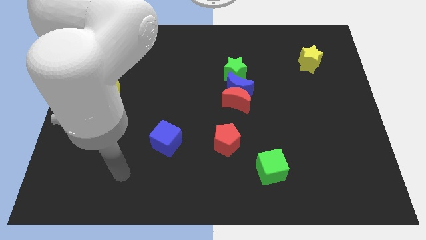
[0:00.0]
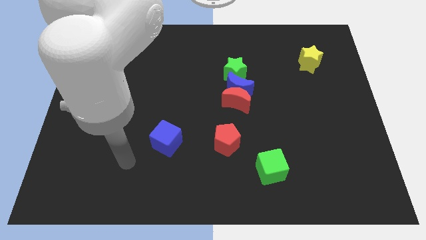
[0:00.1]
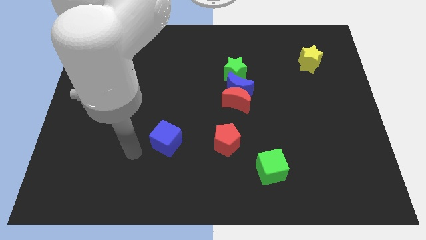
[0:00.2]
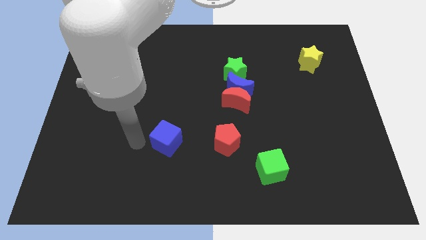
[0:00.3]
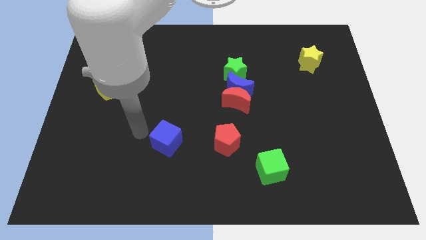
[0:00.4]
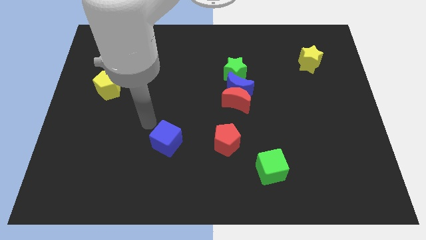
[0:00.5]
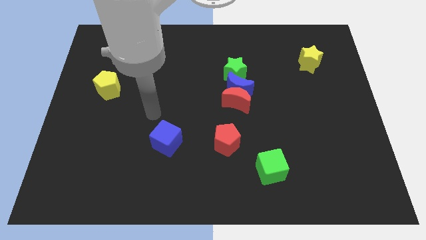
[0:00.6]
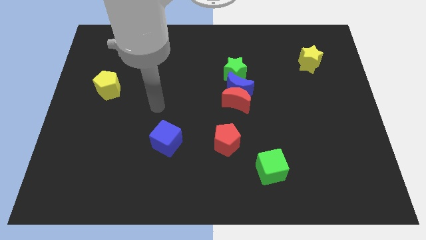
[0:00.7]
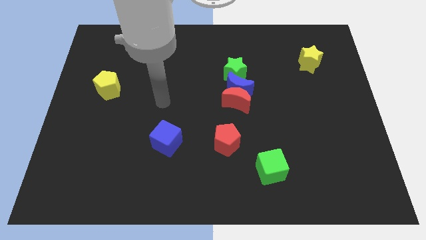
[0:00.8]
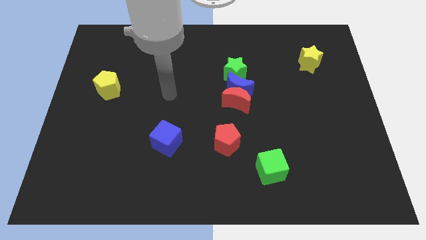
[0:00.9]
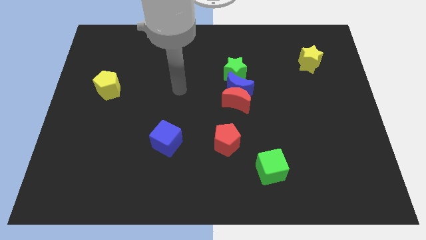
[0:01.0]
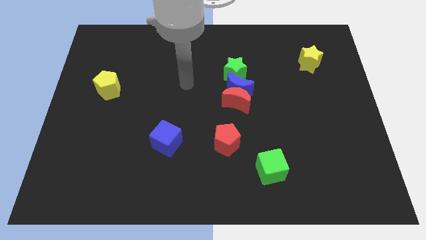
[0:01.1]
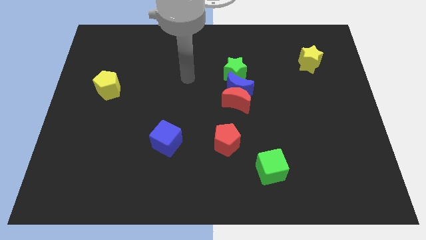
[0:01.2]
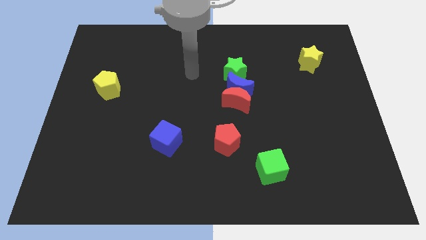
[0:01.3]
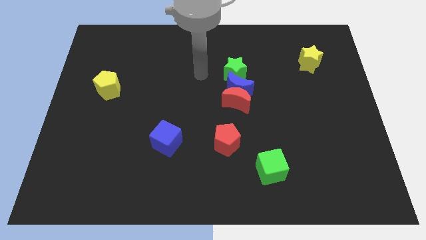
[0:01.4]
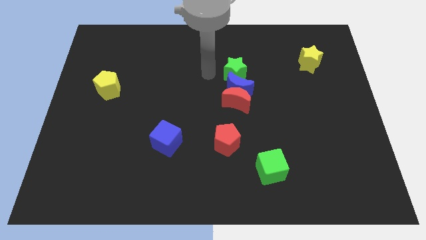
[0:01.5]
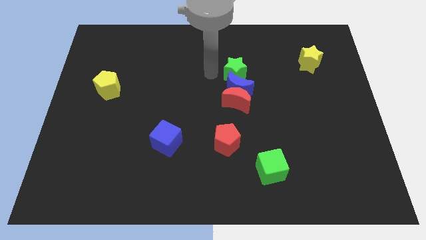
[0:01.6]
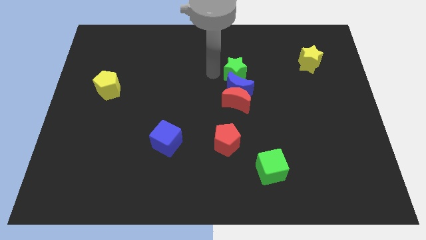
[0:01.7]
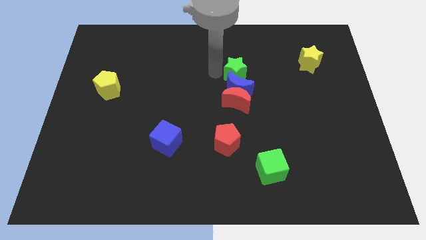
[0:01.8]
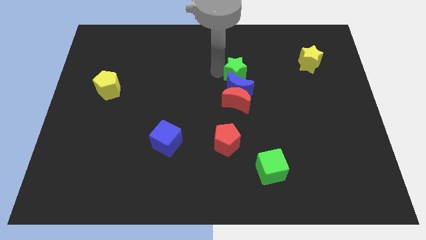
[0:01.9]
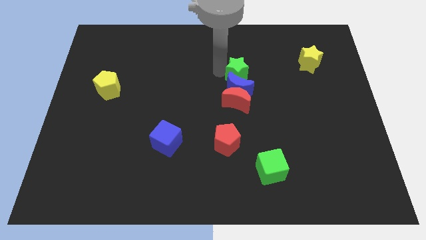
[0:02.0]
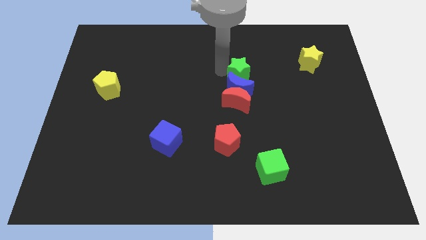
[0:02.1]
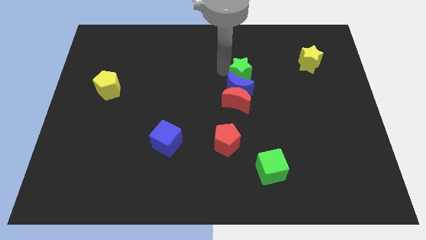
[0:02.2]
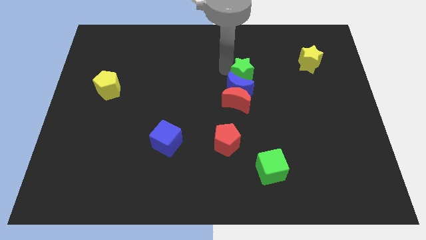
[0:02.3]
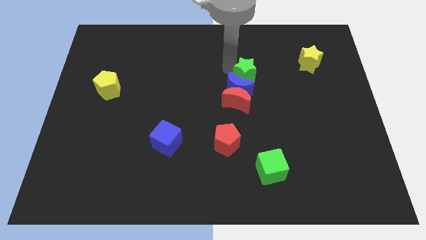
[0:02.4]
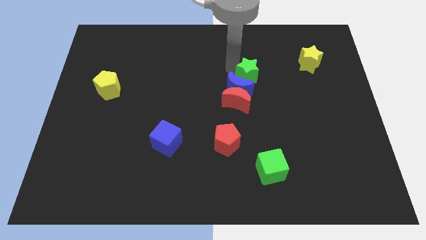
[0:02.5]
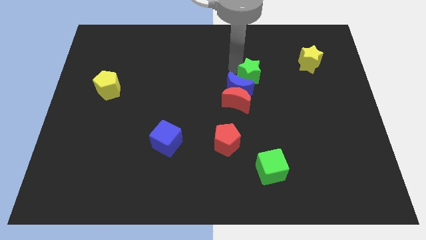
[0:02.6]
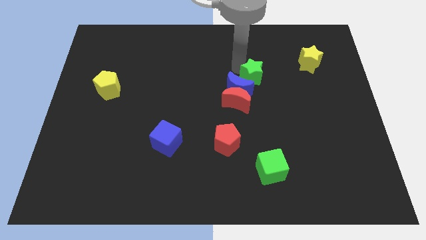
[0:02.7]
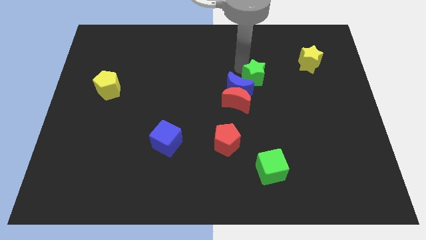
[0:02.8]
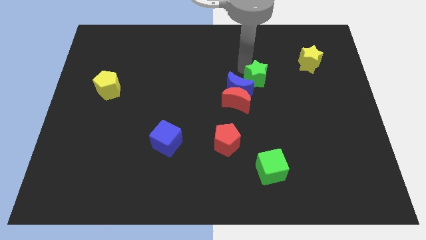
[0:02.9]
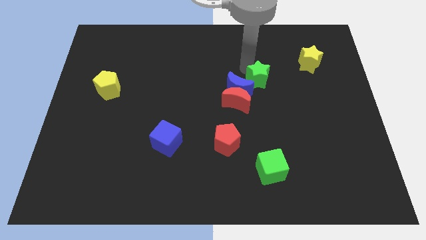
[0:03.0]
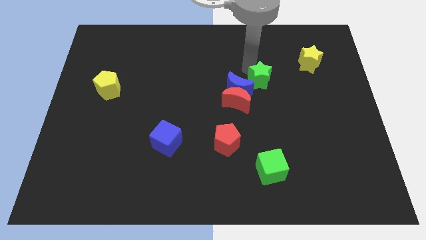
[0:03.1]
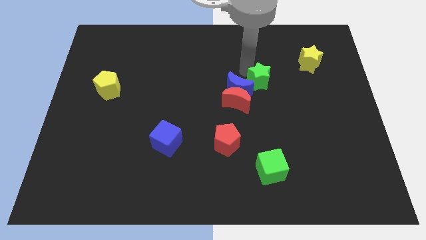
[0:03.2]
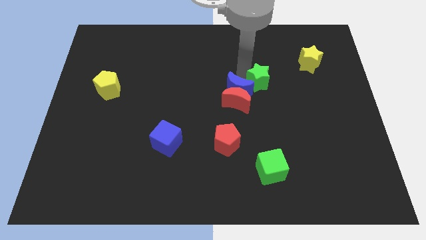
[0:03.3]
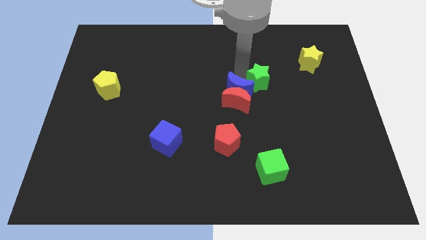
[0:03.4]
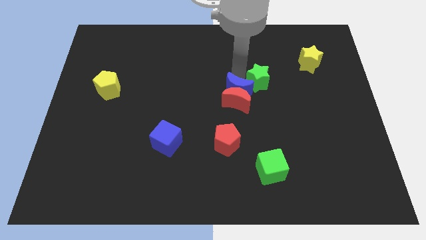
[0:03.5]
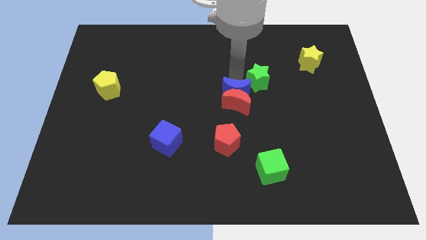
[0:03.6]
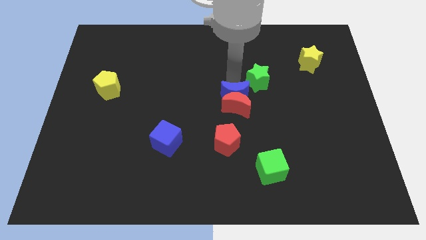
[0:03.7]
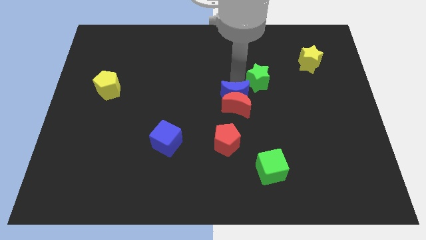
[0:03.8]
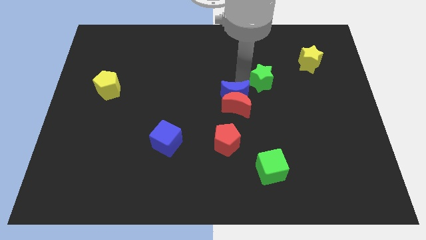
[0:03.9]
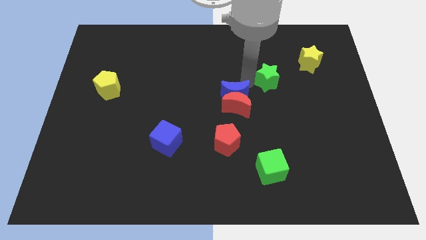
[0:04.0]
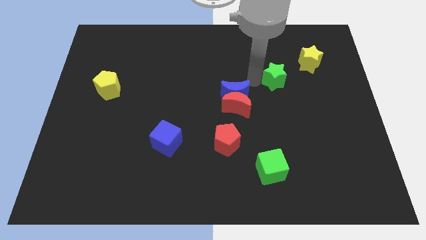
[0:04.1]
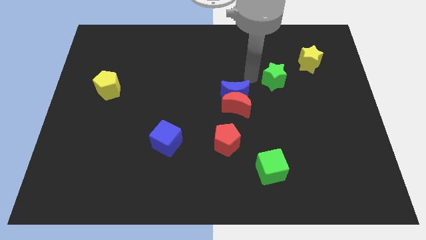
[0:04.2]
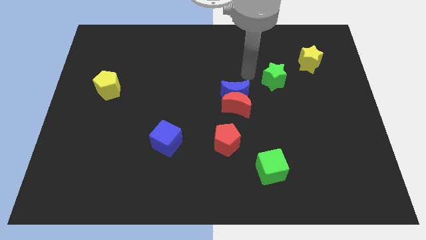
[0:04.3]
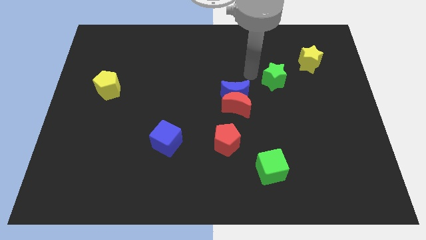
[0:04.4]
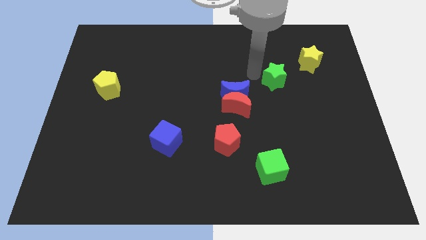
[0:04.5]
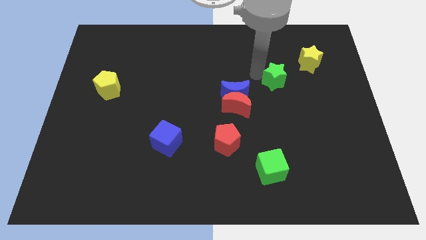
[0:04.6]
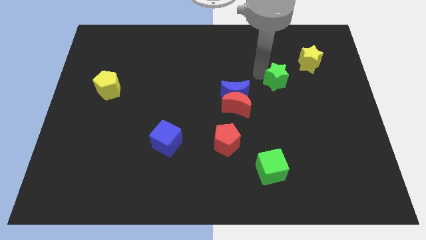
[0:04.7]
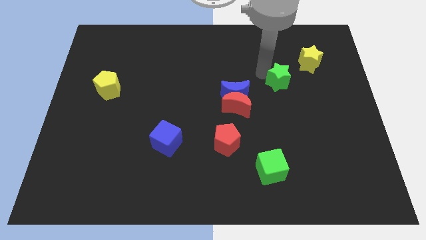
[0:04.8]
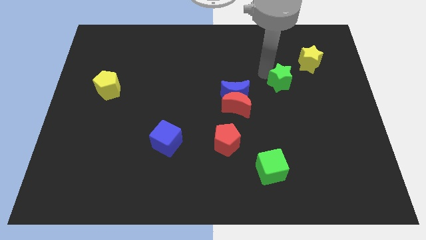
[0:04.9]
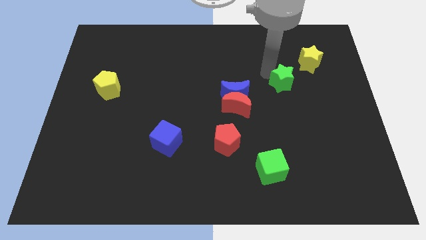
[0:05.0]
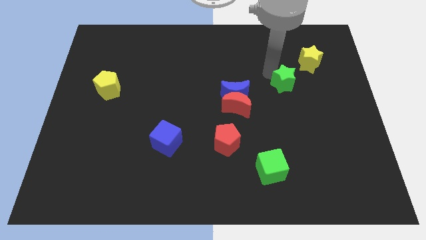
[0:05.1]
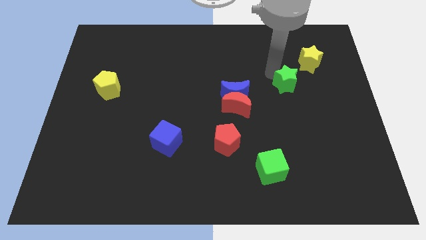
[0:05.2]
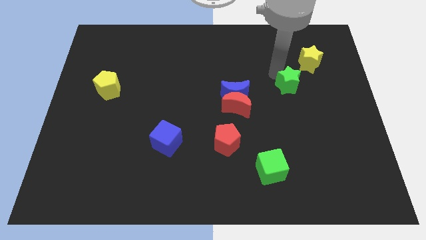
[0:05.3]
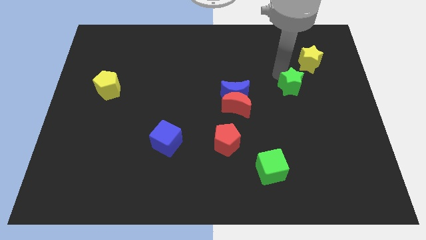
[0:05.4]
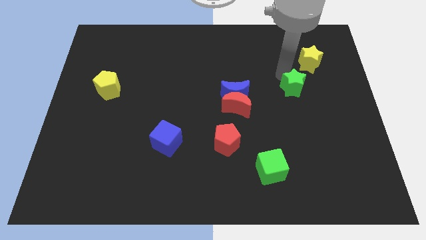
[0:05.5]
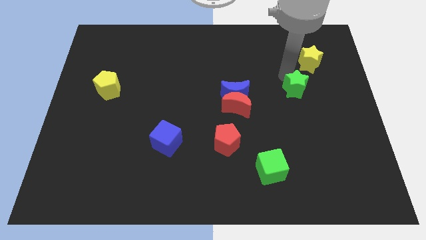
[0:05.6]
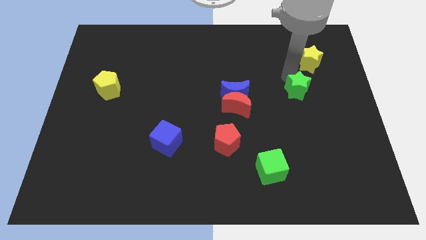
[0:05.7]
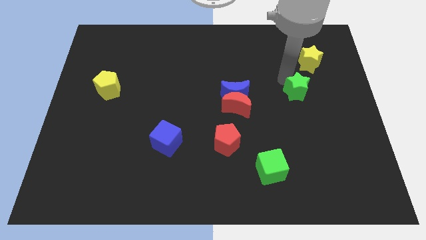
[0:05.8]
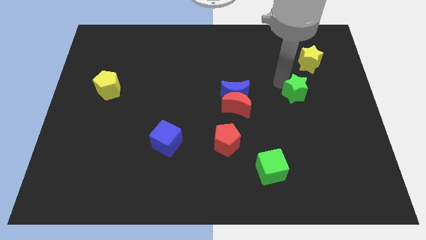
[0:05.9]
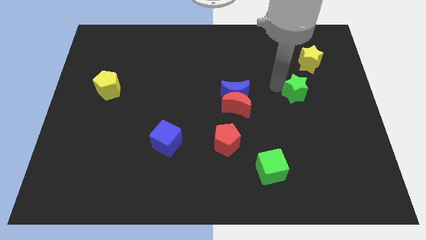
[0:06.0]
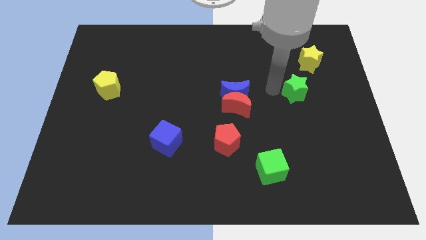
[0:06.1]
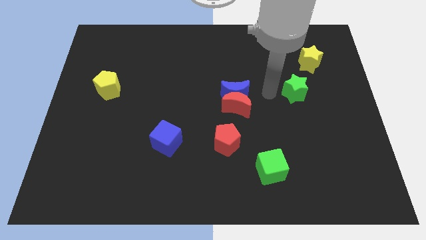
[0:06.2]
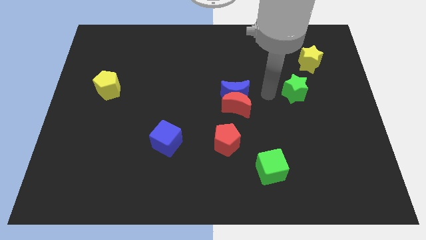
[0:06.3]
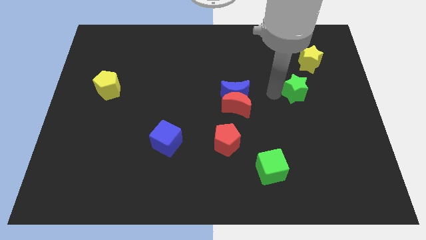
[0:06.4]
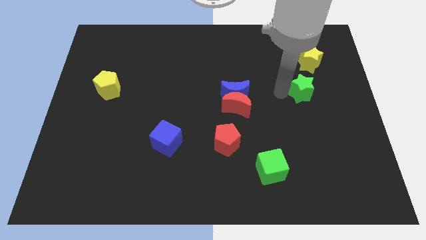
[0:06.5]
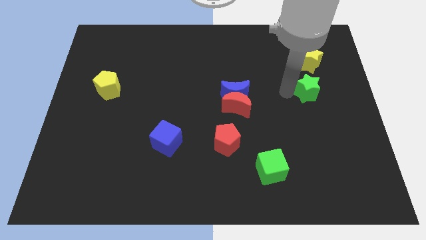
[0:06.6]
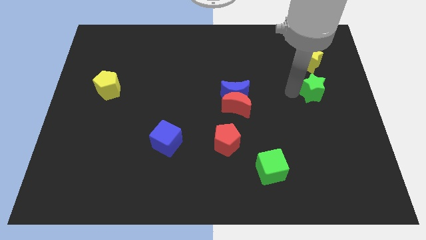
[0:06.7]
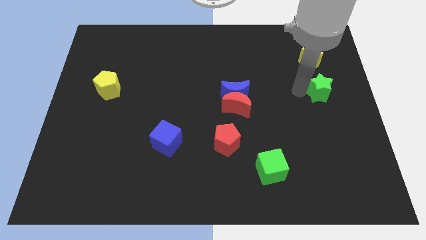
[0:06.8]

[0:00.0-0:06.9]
slide the green star to the right side

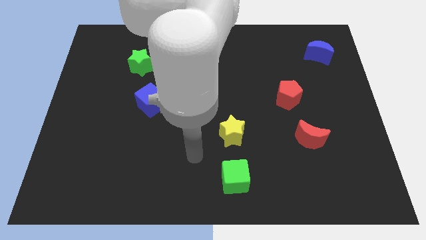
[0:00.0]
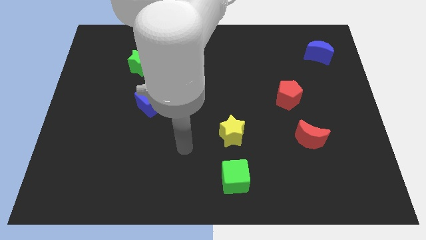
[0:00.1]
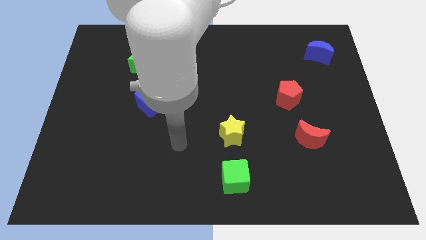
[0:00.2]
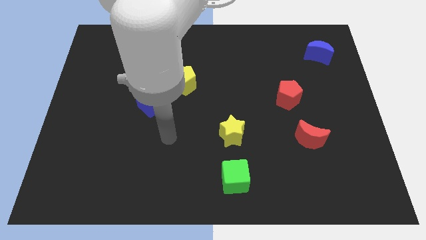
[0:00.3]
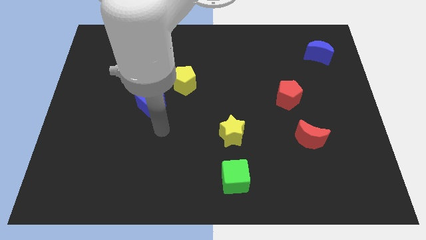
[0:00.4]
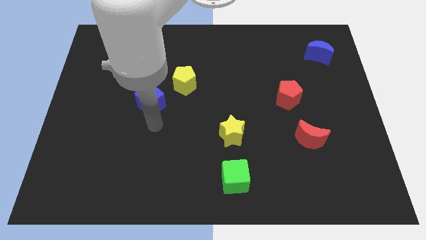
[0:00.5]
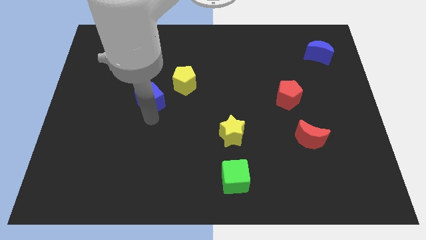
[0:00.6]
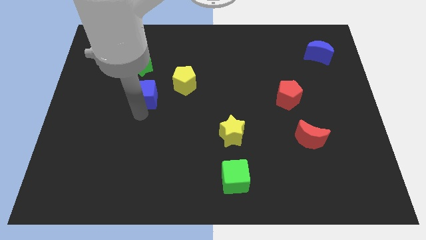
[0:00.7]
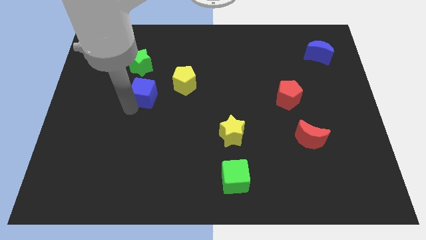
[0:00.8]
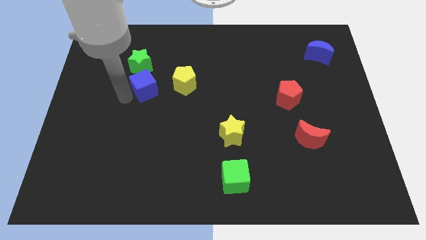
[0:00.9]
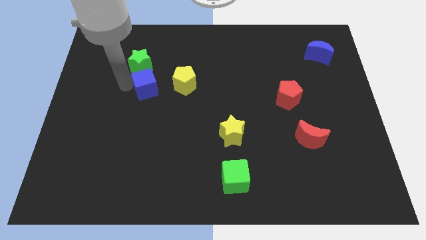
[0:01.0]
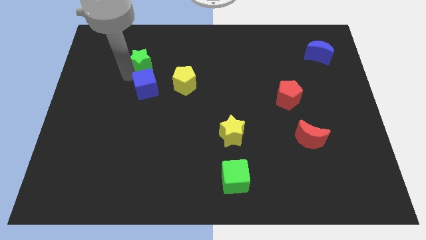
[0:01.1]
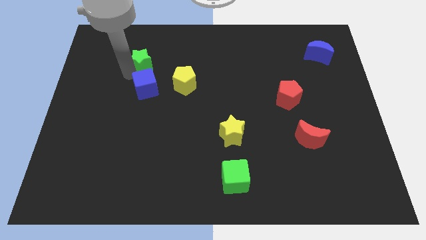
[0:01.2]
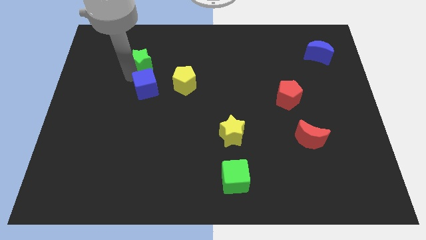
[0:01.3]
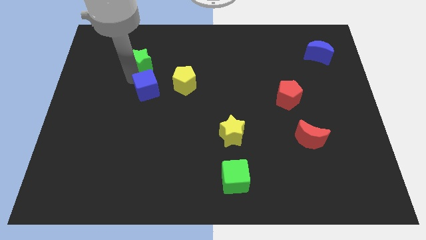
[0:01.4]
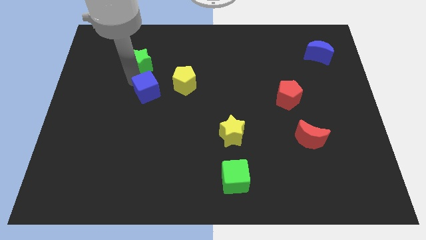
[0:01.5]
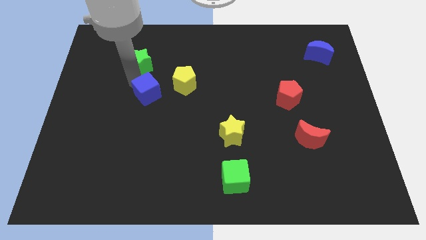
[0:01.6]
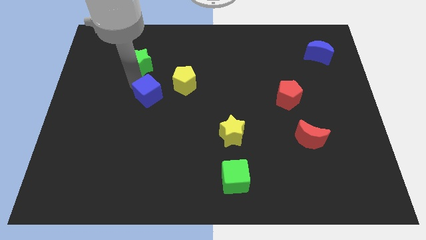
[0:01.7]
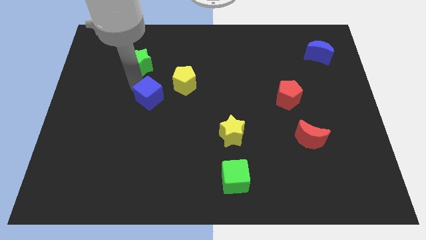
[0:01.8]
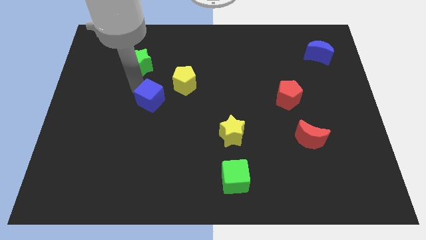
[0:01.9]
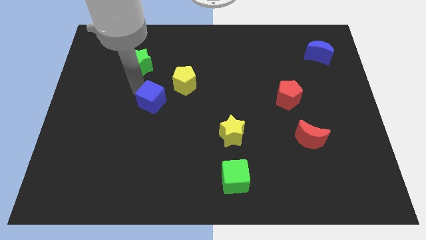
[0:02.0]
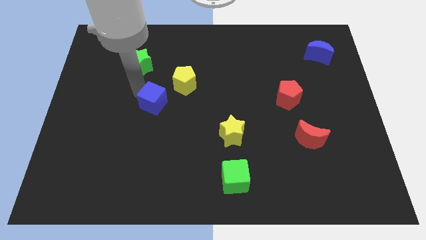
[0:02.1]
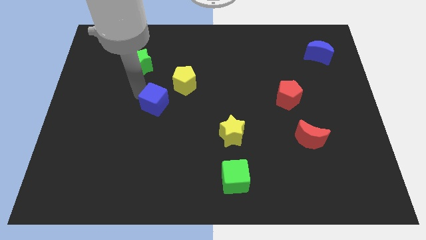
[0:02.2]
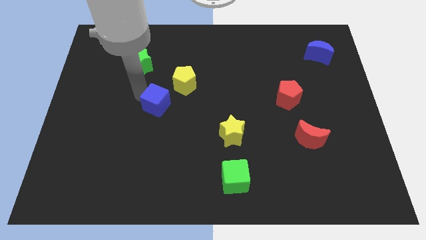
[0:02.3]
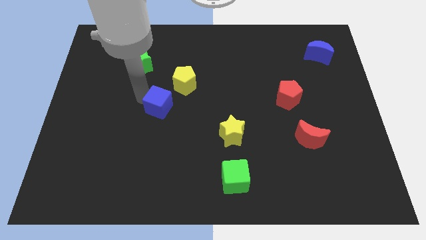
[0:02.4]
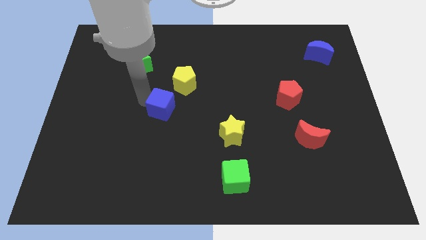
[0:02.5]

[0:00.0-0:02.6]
move the blue cube to the middle of the board
